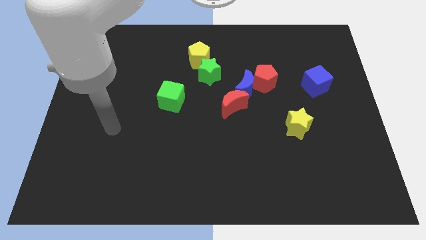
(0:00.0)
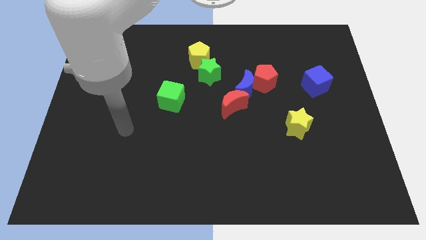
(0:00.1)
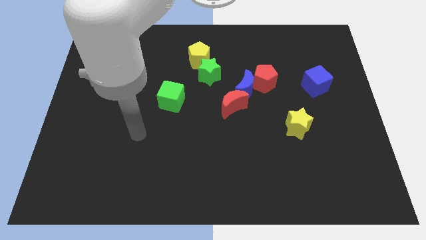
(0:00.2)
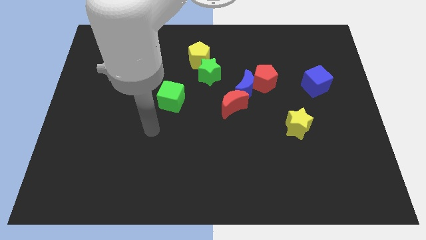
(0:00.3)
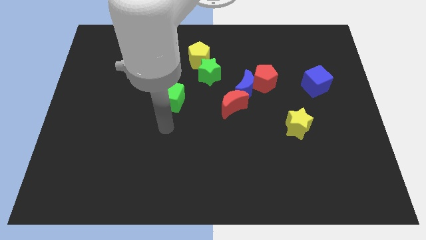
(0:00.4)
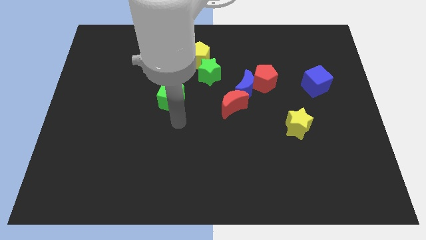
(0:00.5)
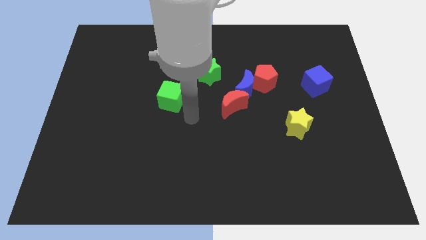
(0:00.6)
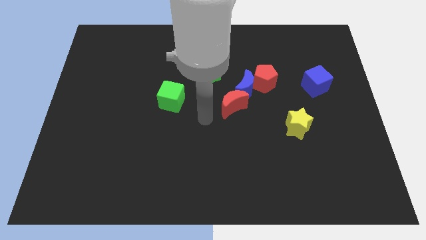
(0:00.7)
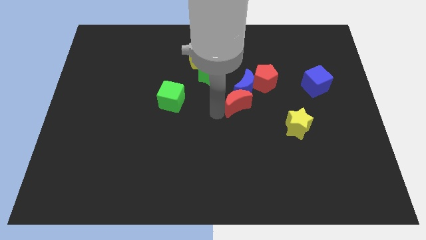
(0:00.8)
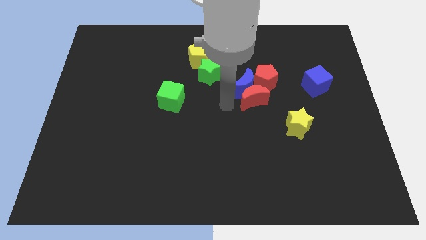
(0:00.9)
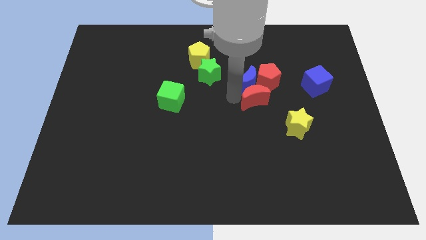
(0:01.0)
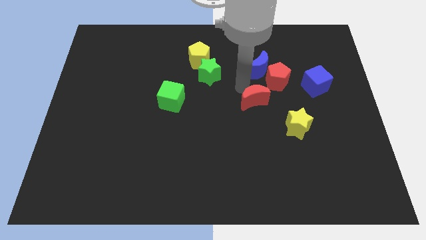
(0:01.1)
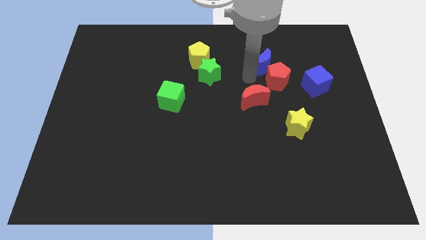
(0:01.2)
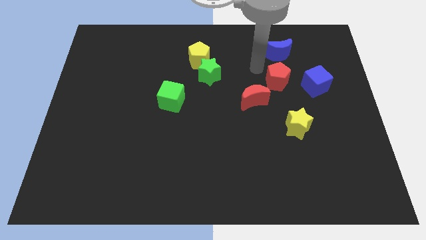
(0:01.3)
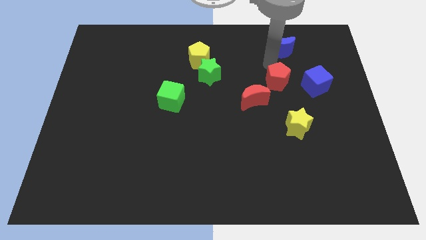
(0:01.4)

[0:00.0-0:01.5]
pull the red pentagon apart from the blue moon

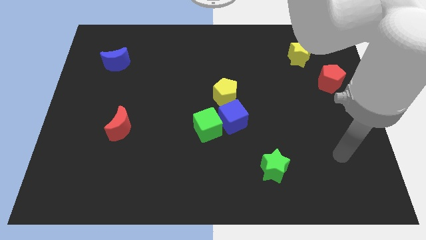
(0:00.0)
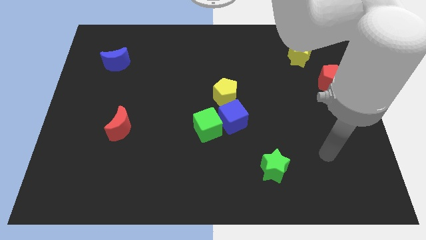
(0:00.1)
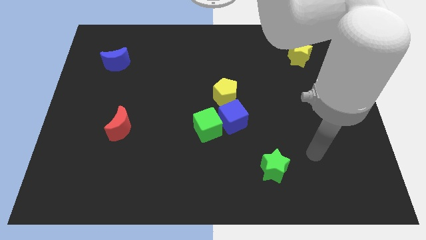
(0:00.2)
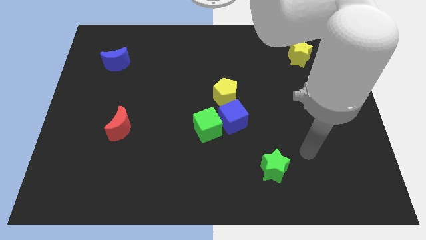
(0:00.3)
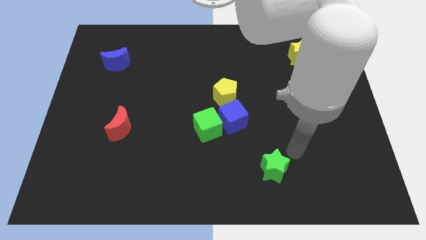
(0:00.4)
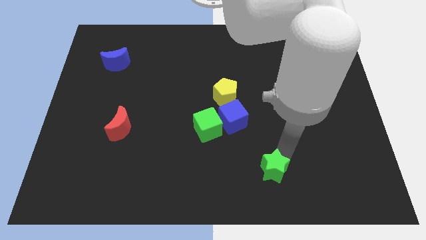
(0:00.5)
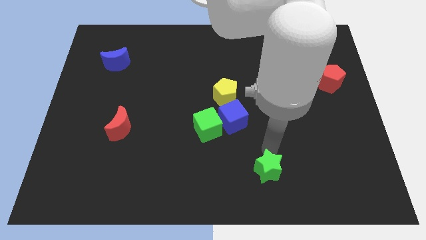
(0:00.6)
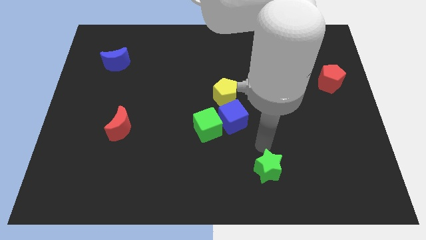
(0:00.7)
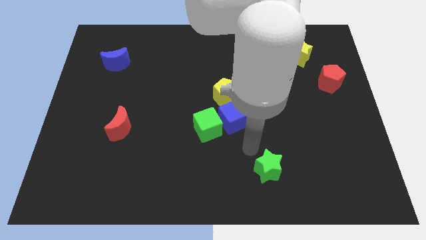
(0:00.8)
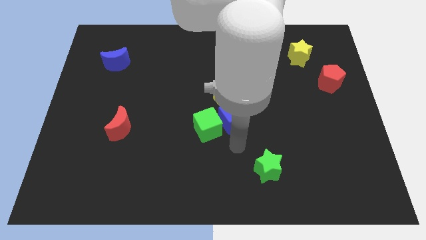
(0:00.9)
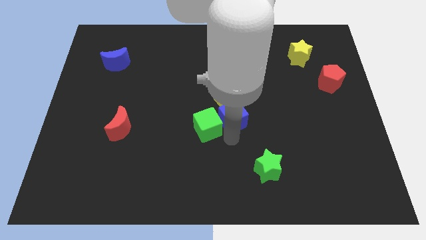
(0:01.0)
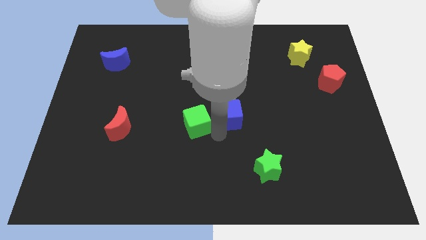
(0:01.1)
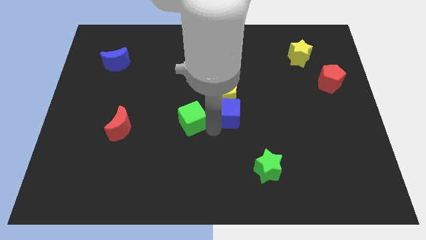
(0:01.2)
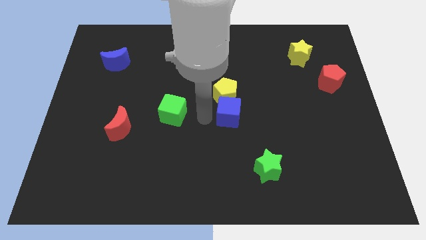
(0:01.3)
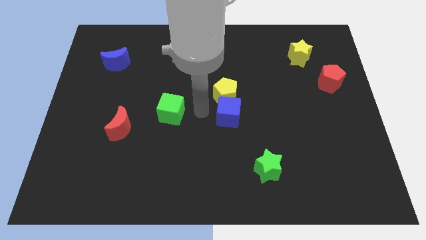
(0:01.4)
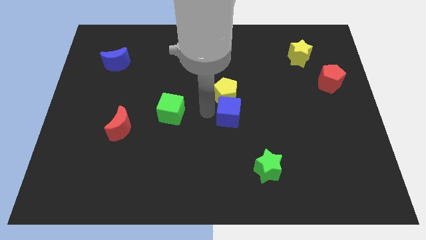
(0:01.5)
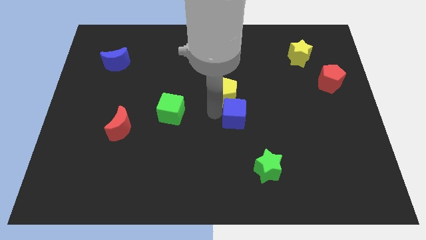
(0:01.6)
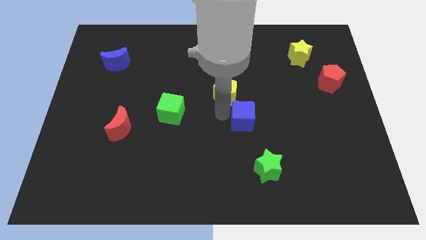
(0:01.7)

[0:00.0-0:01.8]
move the blue cube away from the green cube and yellow pentagon

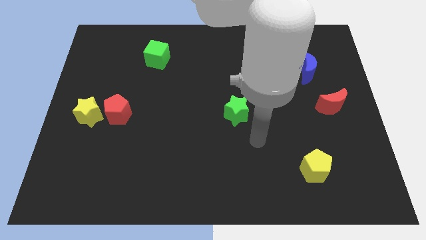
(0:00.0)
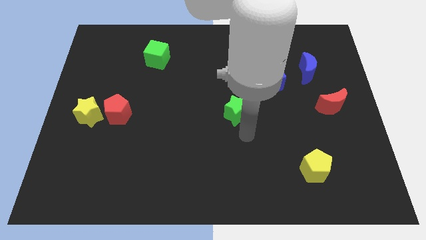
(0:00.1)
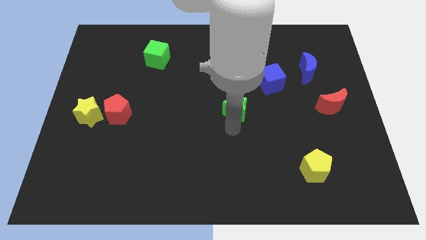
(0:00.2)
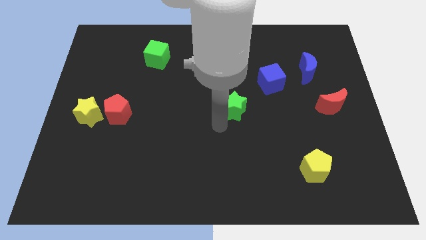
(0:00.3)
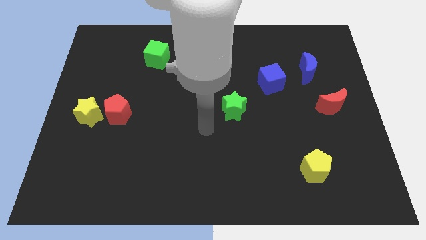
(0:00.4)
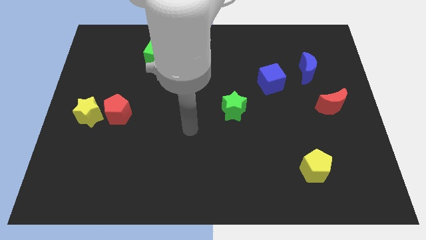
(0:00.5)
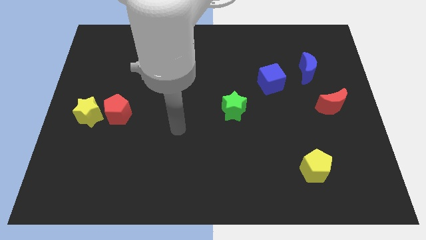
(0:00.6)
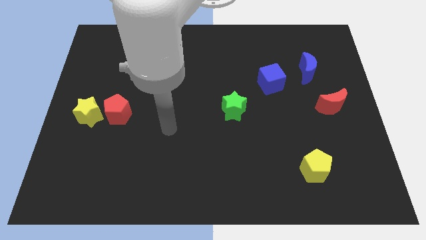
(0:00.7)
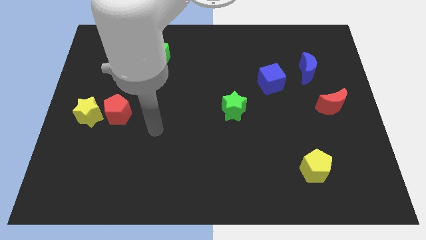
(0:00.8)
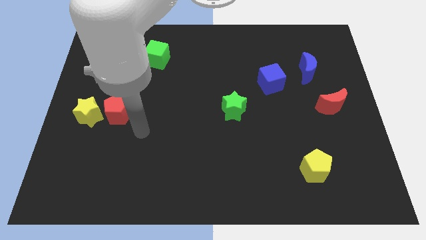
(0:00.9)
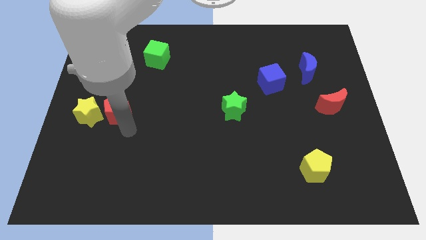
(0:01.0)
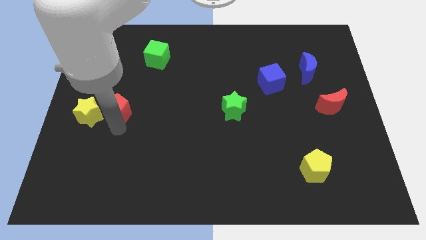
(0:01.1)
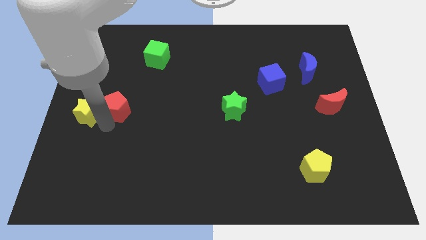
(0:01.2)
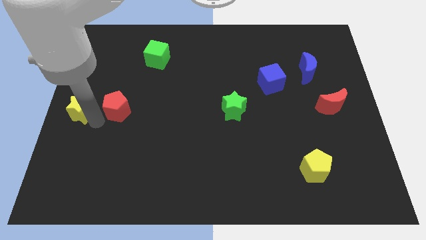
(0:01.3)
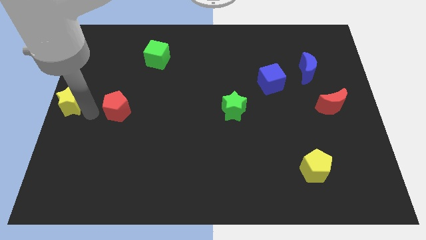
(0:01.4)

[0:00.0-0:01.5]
pull the red pentagon apart from the yellow star

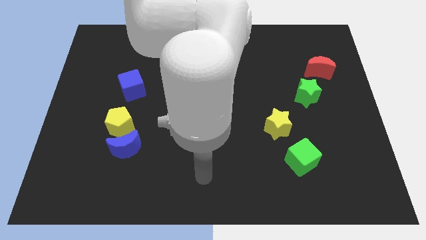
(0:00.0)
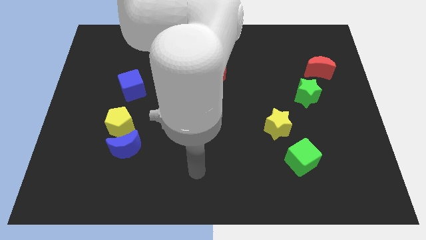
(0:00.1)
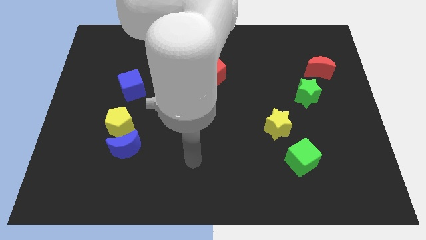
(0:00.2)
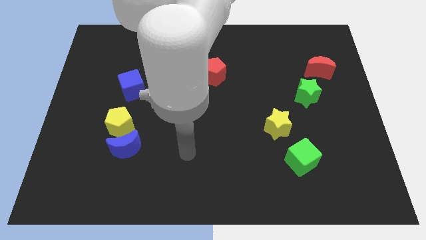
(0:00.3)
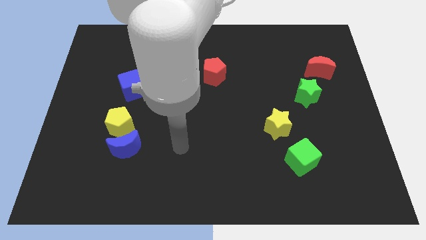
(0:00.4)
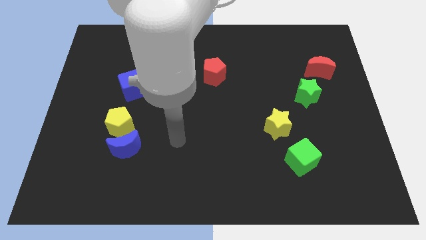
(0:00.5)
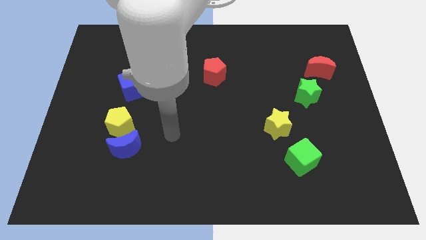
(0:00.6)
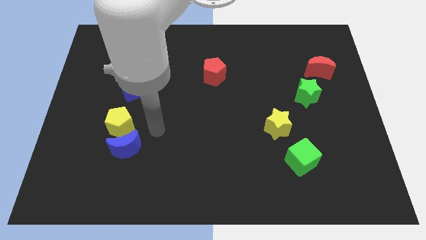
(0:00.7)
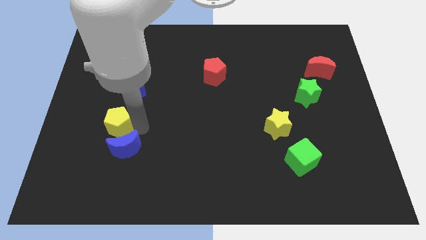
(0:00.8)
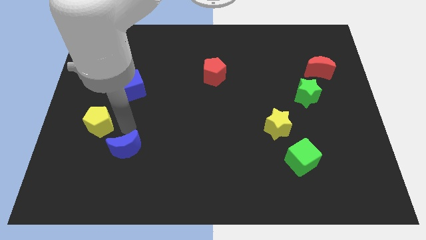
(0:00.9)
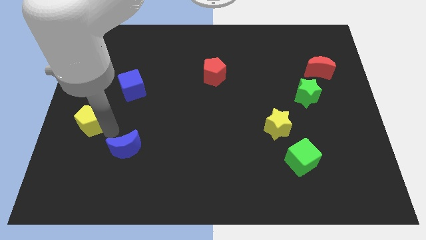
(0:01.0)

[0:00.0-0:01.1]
move the blue moon away from the yellow pentagon

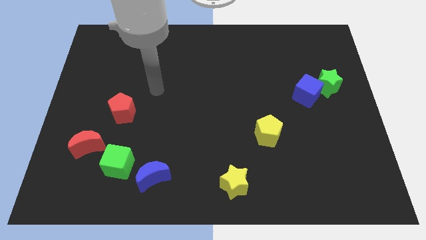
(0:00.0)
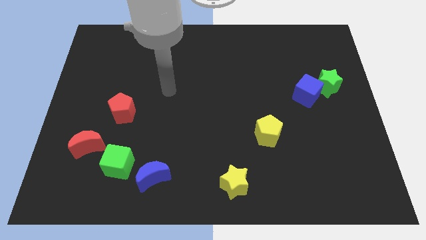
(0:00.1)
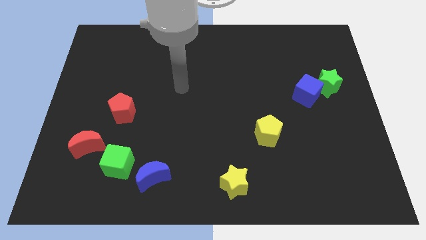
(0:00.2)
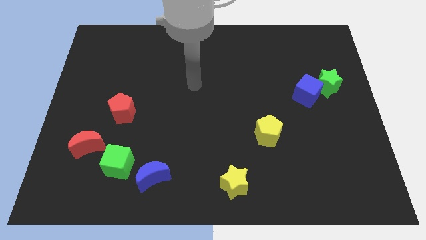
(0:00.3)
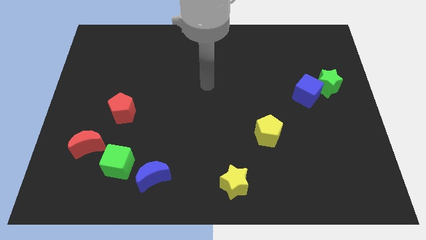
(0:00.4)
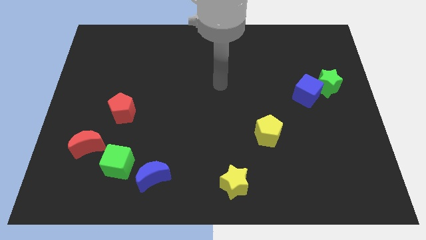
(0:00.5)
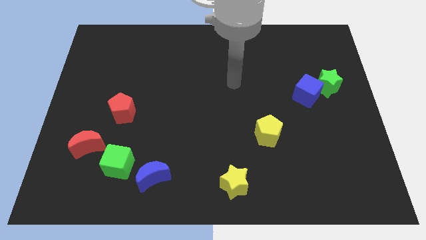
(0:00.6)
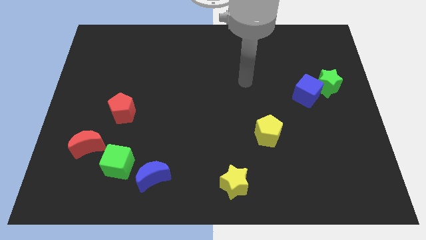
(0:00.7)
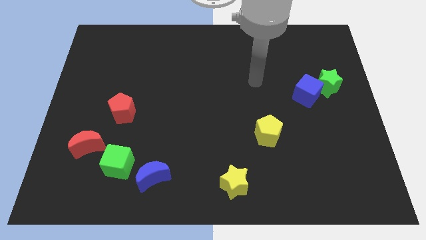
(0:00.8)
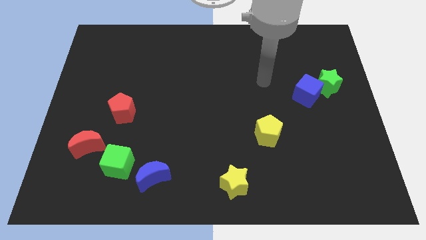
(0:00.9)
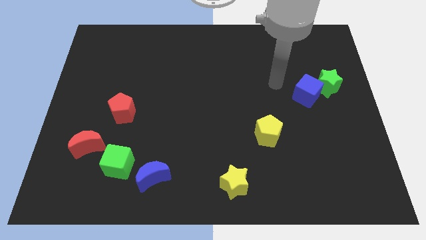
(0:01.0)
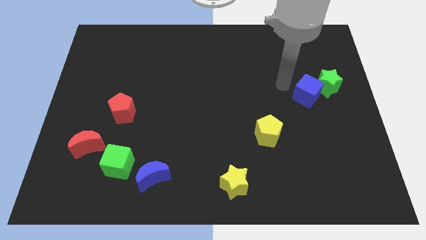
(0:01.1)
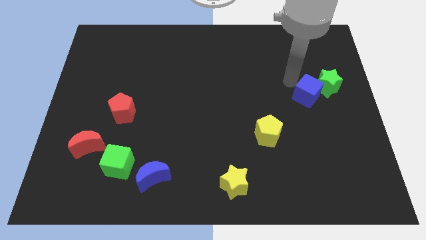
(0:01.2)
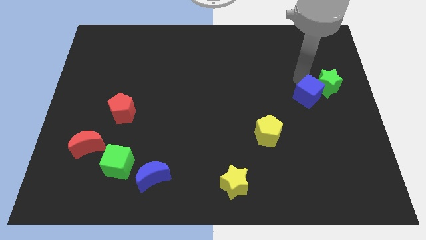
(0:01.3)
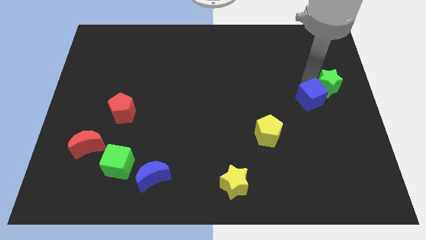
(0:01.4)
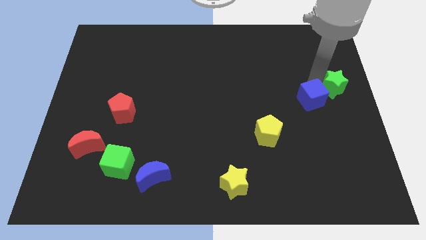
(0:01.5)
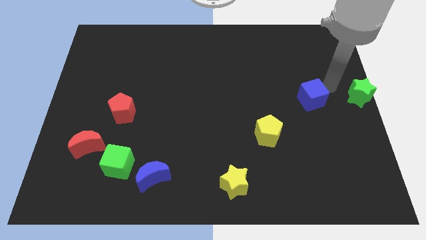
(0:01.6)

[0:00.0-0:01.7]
pull the blue cube apart from the green star

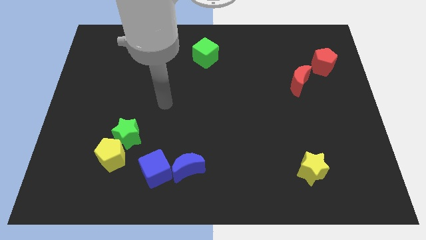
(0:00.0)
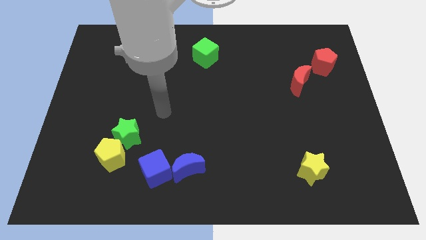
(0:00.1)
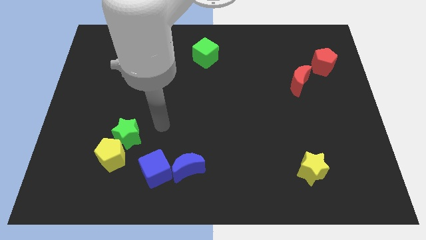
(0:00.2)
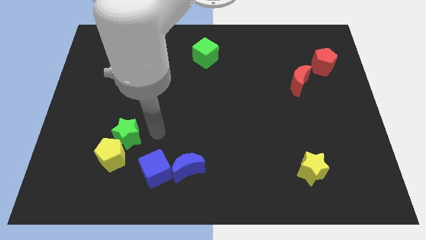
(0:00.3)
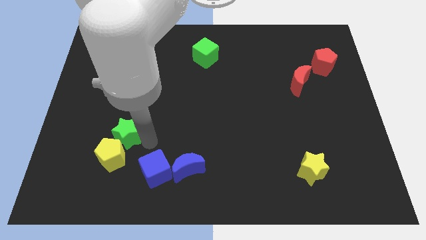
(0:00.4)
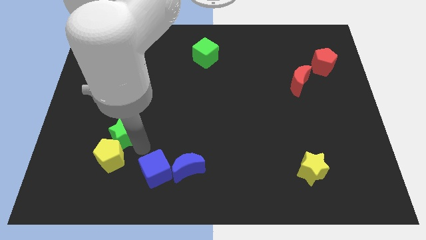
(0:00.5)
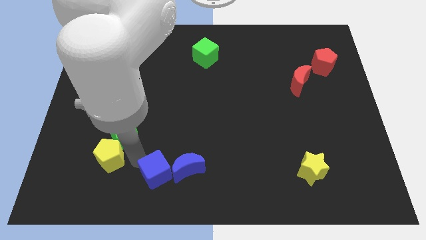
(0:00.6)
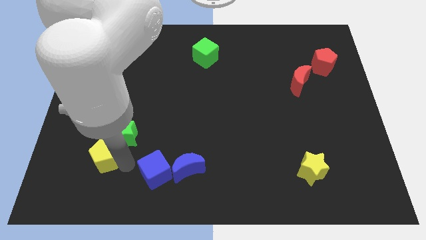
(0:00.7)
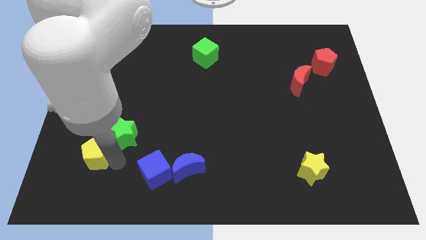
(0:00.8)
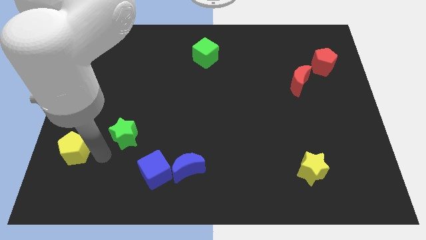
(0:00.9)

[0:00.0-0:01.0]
move the green star away from the yellow pentagon

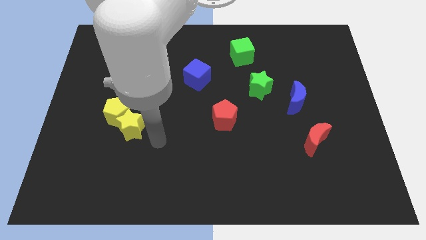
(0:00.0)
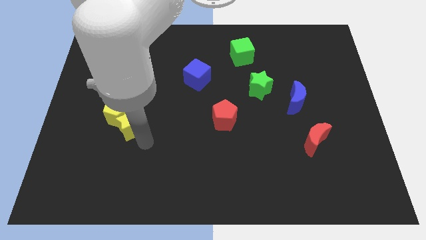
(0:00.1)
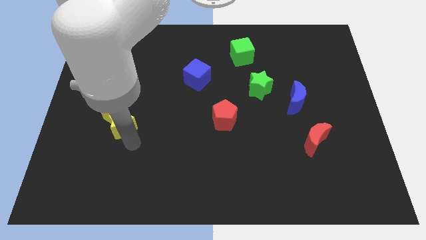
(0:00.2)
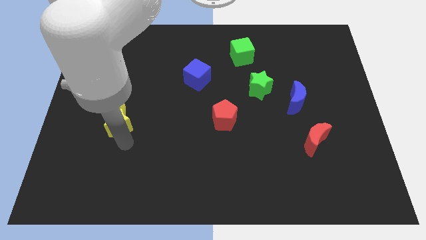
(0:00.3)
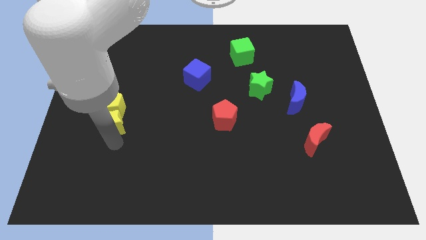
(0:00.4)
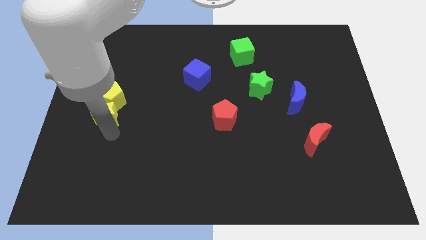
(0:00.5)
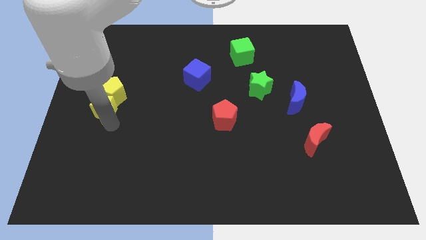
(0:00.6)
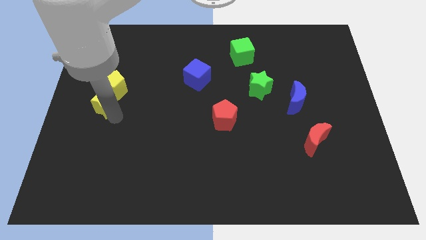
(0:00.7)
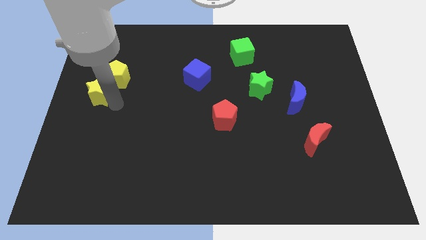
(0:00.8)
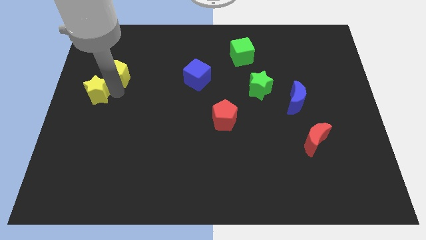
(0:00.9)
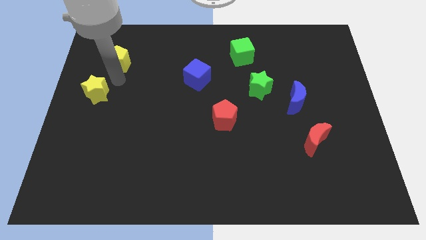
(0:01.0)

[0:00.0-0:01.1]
pull the yellow star apart from the yellow pentagon
